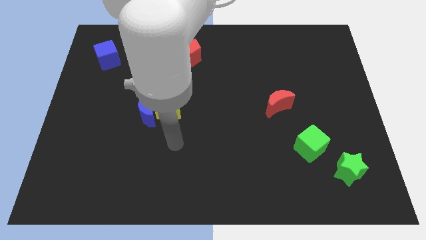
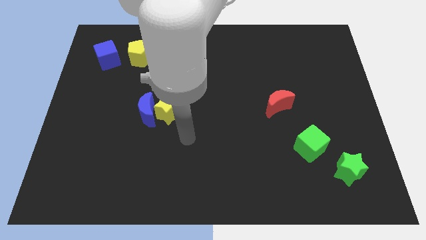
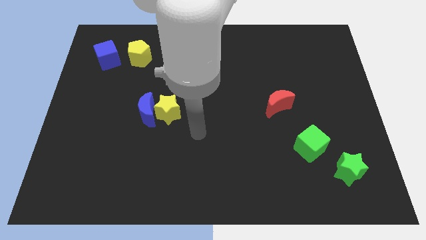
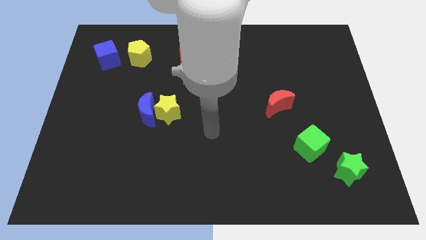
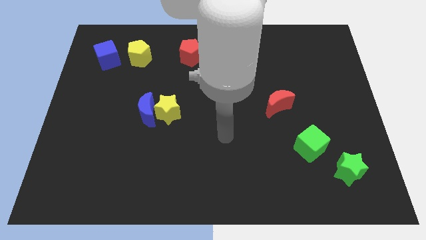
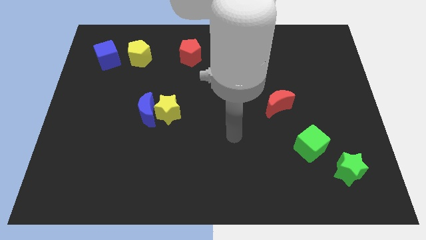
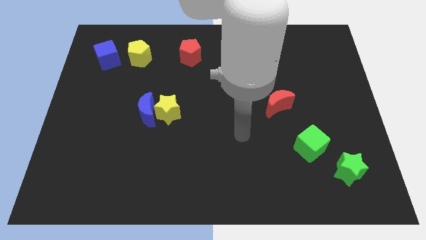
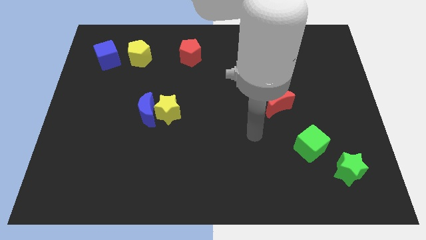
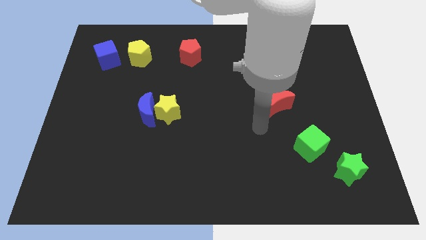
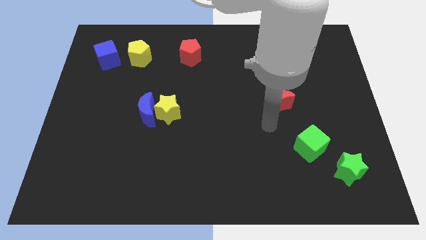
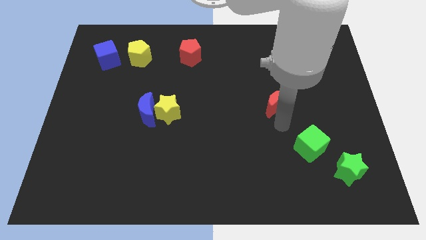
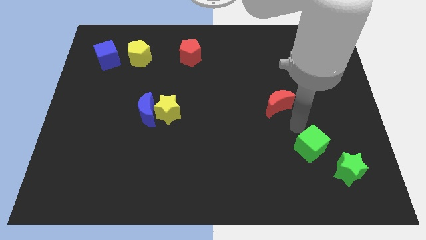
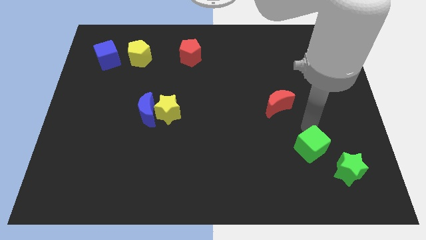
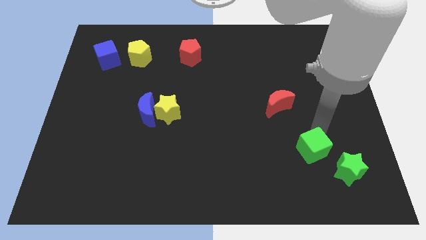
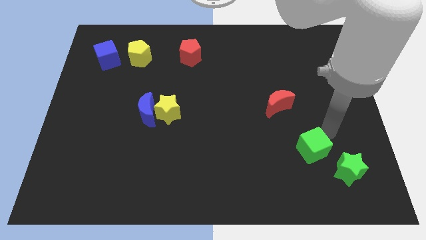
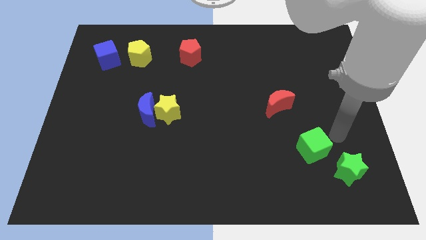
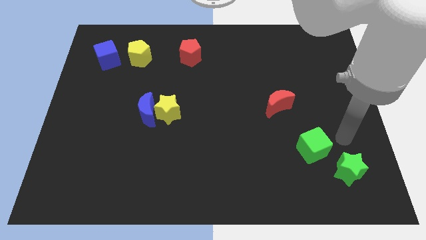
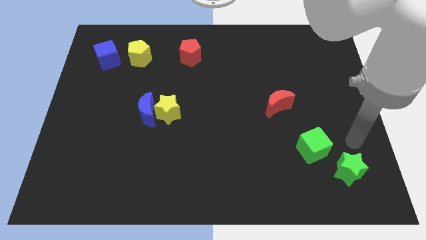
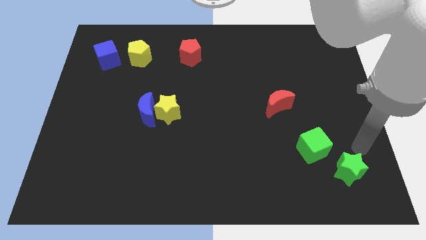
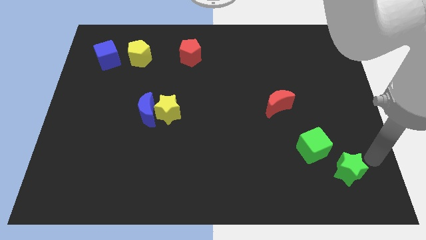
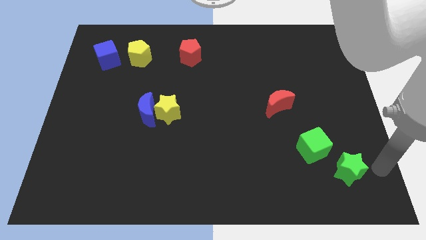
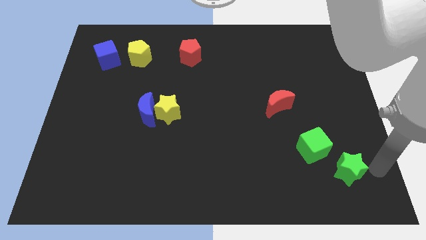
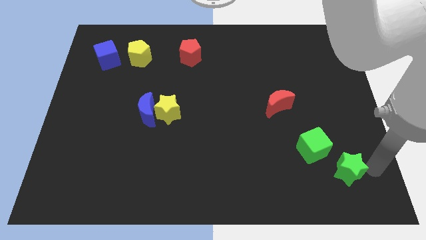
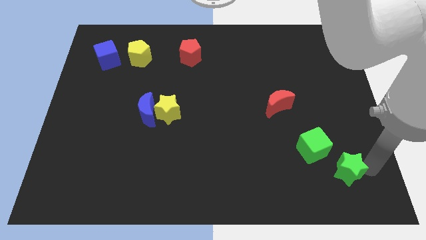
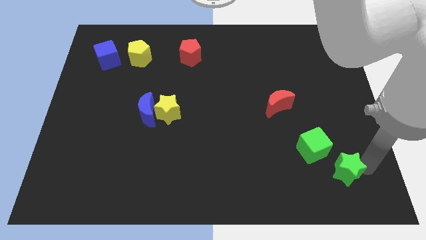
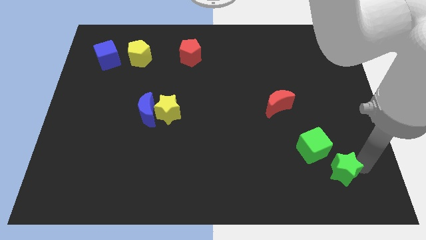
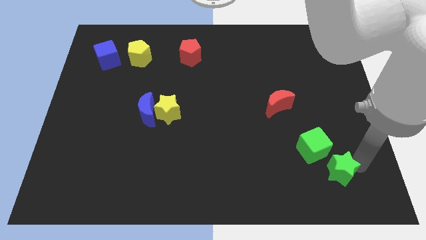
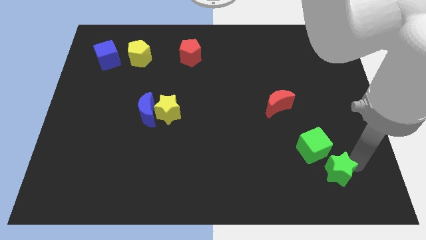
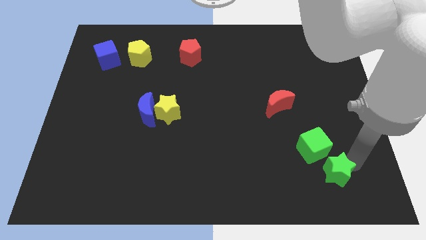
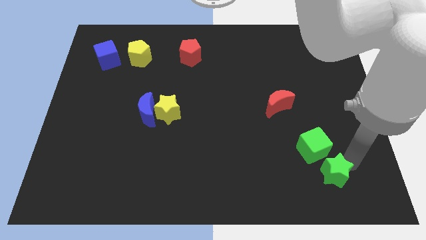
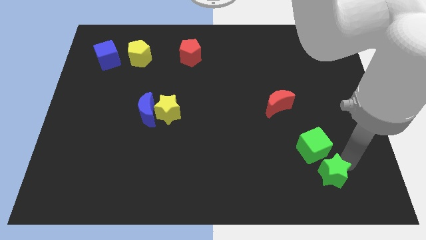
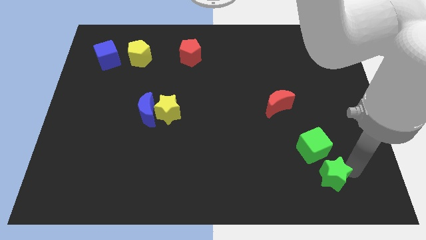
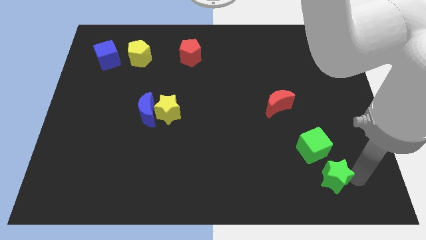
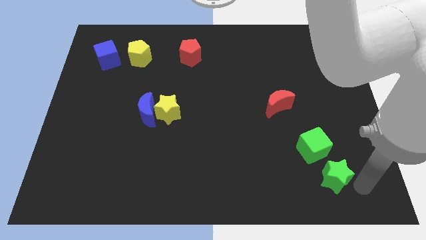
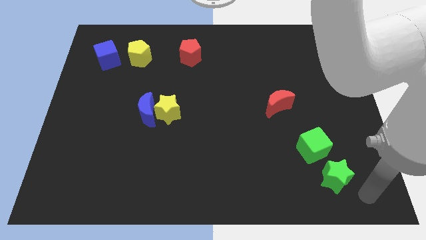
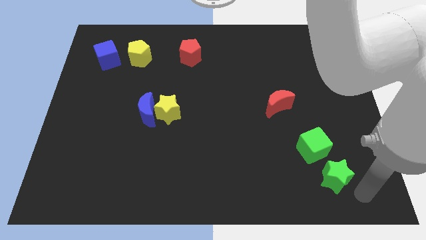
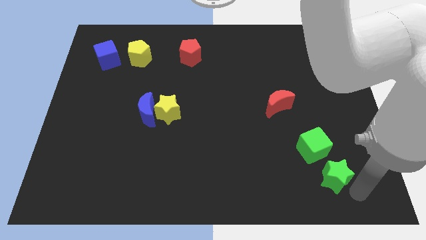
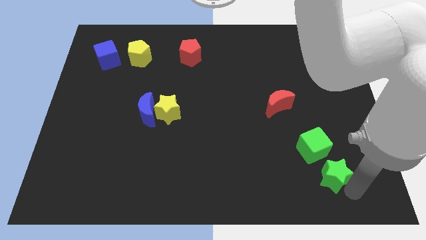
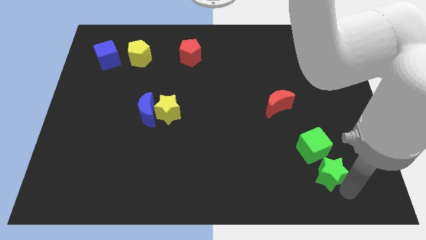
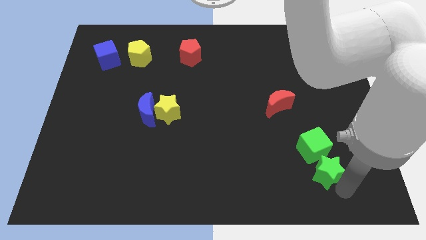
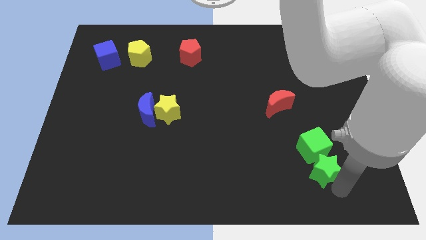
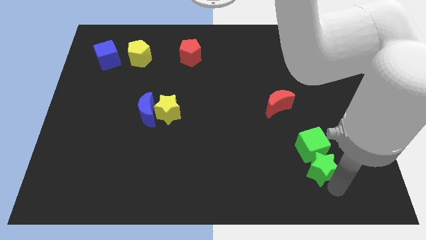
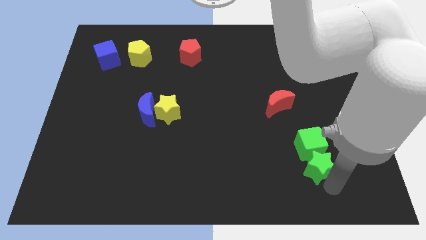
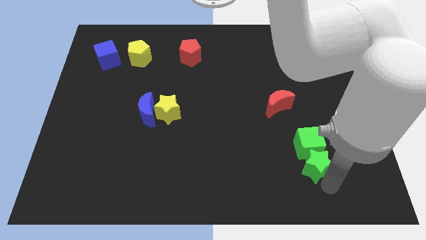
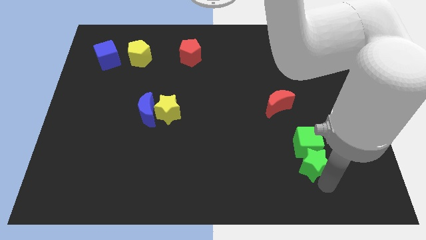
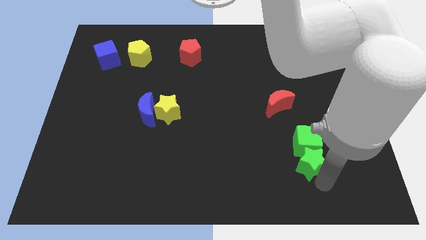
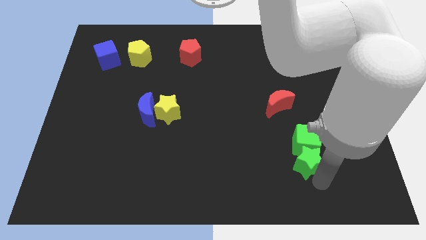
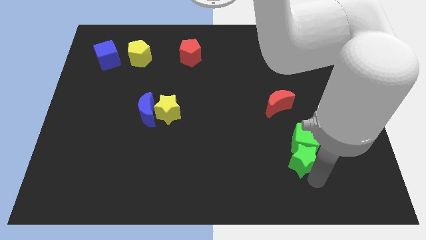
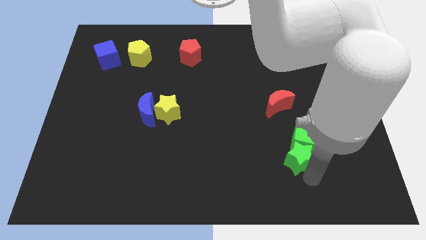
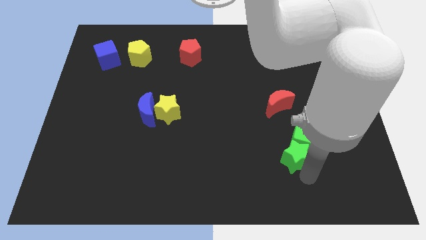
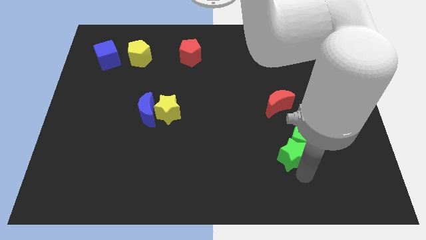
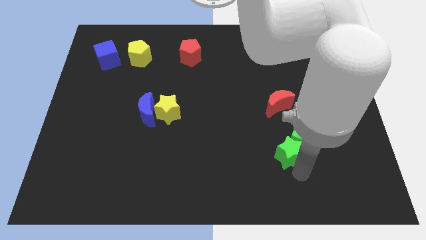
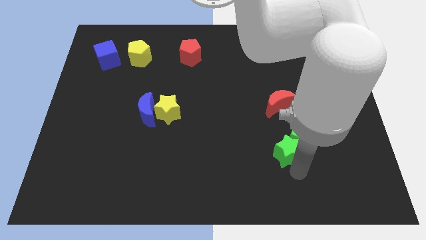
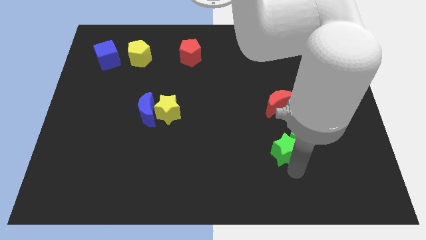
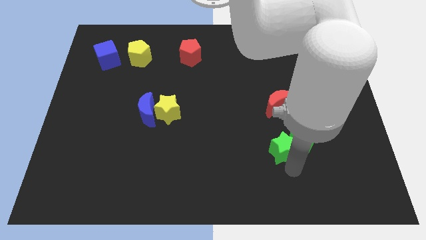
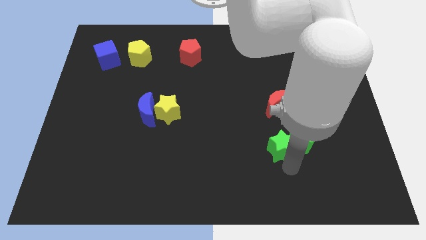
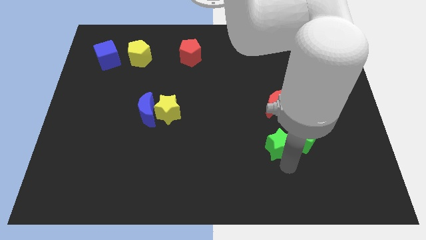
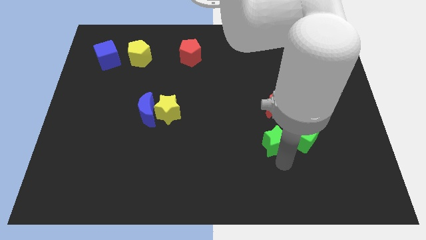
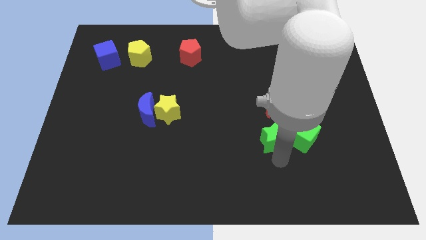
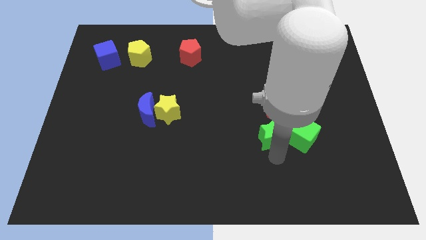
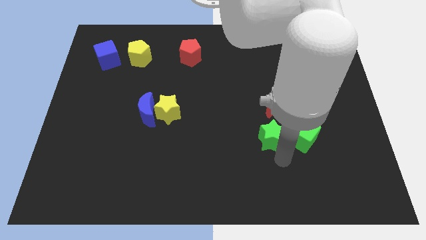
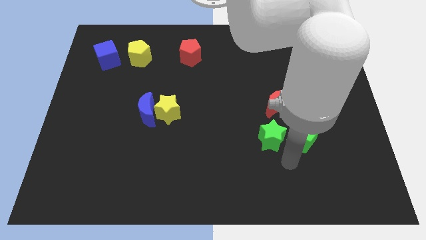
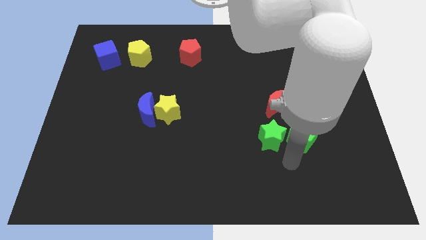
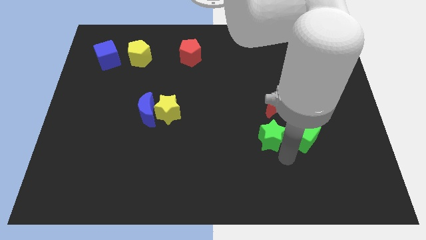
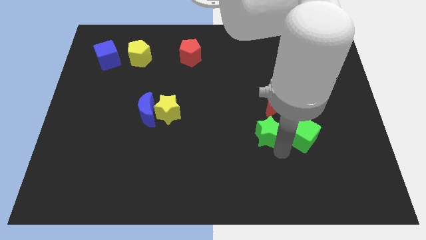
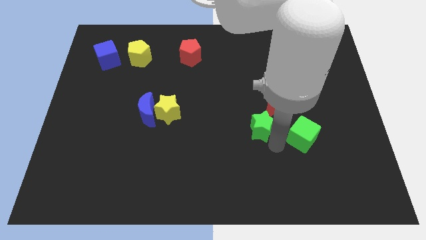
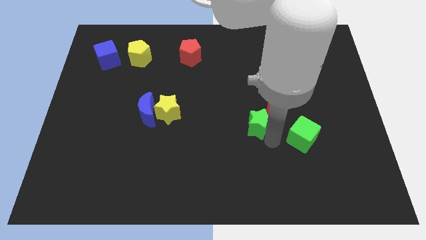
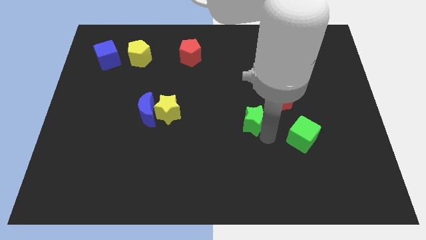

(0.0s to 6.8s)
move the green star diagonally upwards and left

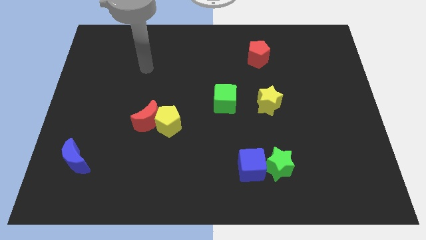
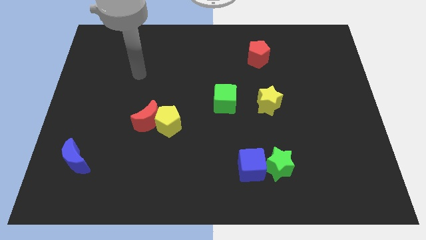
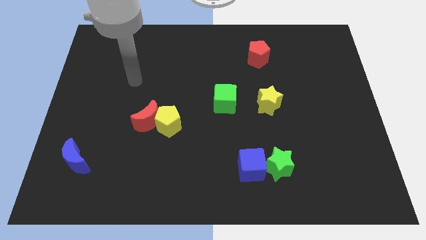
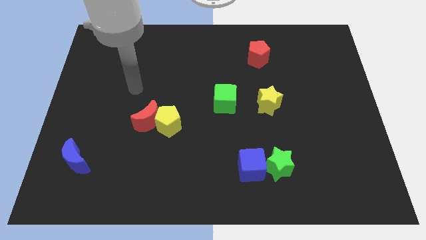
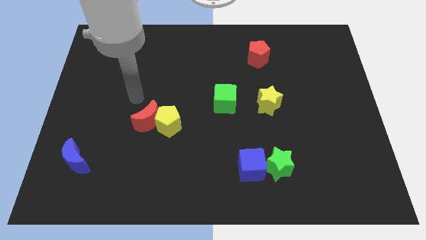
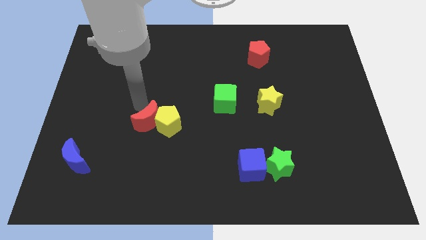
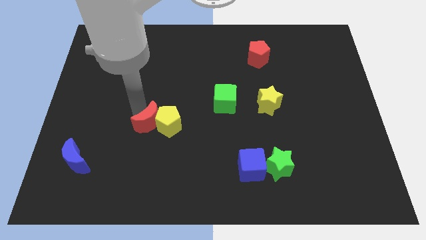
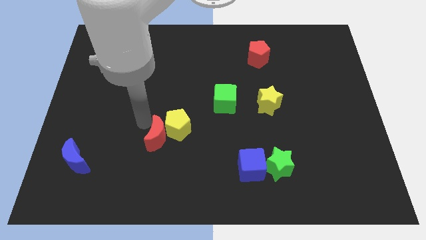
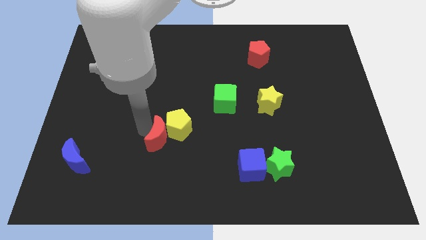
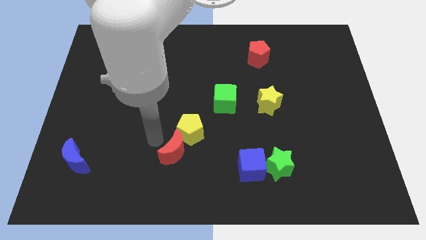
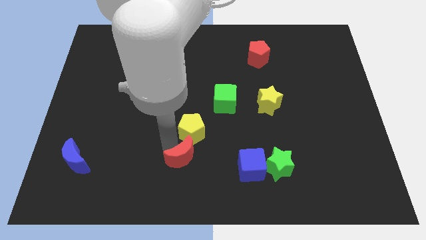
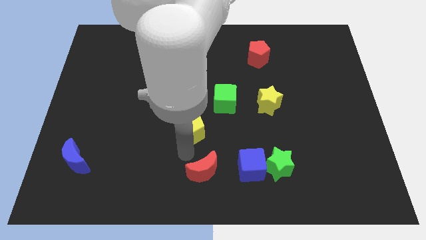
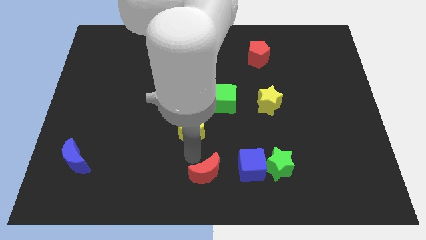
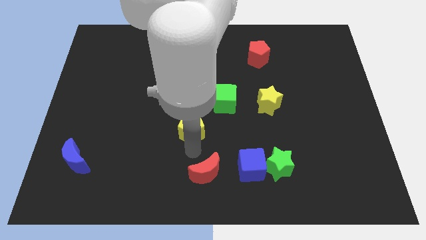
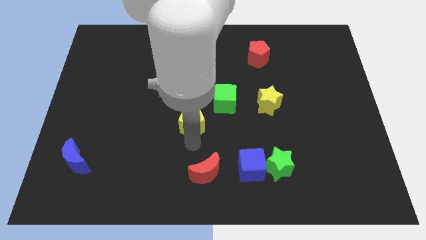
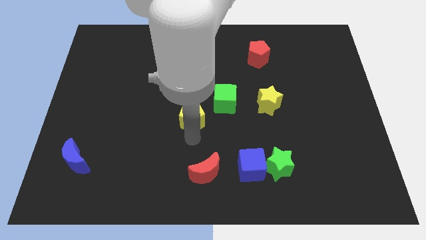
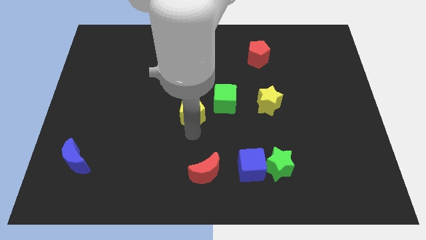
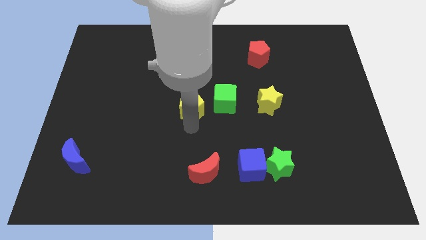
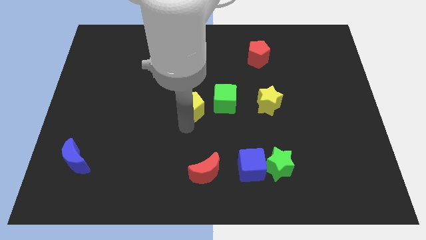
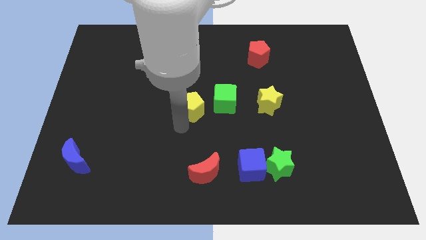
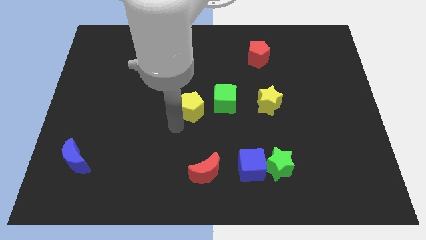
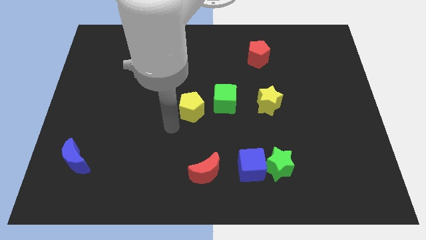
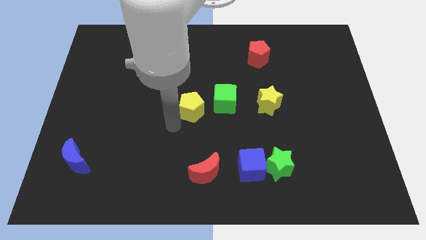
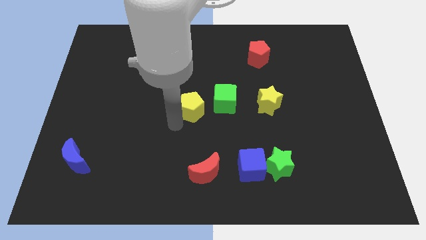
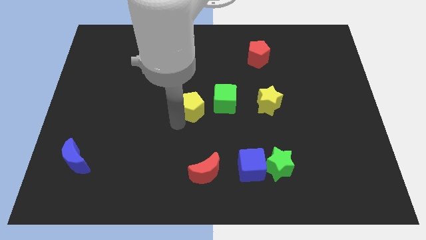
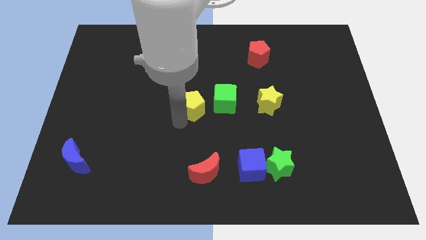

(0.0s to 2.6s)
push the yellow pentagon diagonally upwards and to the right a little
